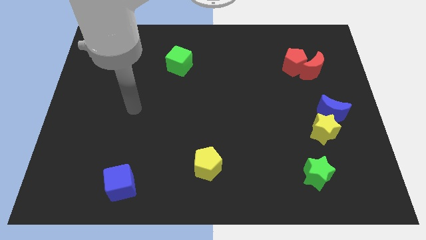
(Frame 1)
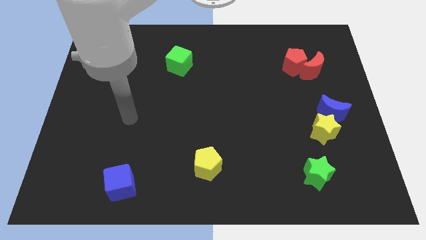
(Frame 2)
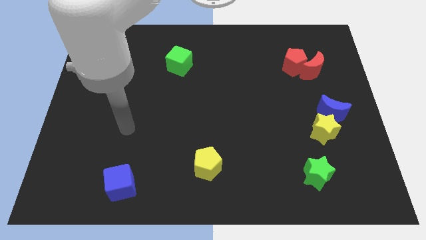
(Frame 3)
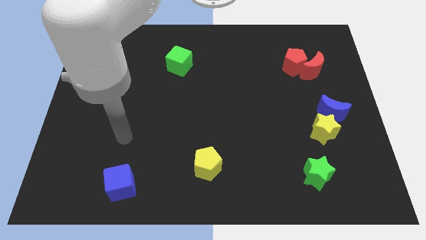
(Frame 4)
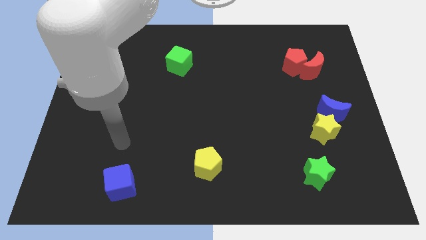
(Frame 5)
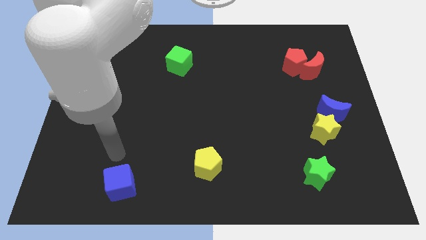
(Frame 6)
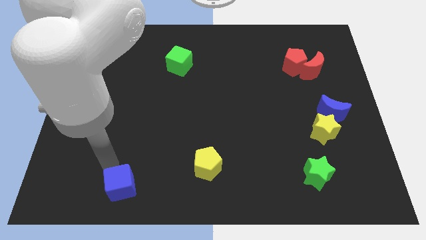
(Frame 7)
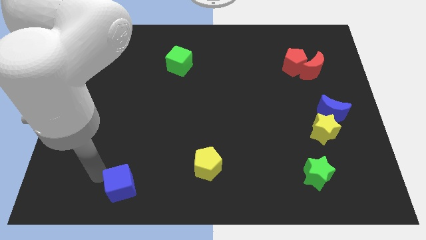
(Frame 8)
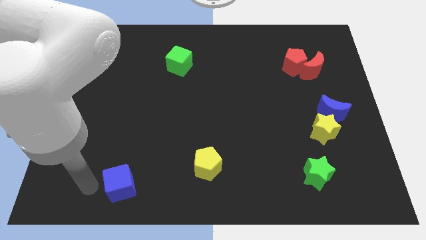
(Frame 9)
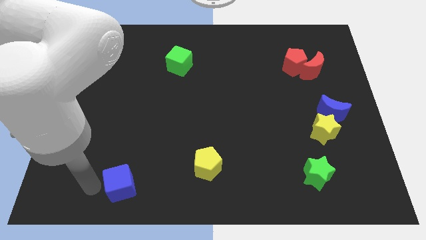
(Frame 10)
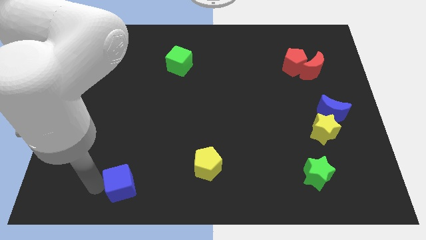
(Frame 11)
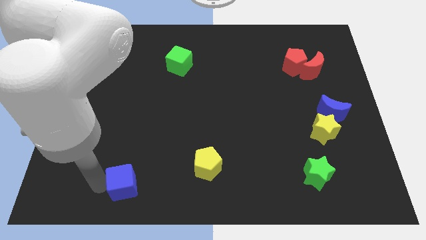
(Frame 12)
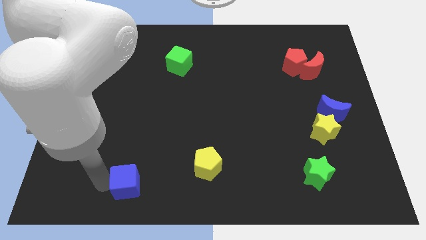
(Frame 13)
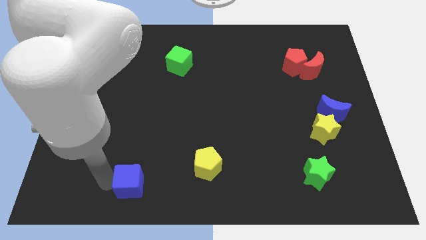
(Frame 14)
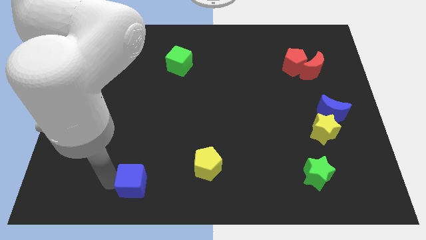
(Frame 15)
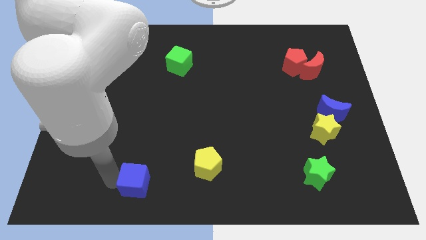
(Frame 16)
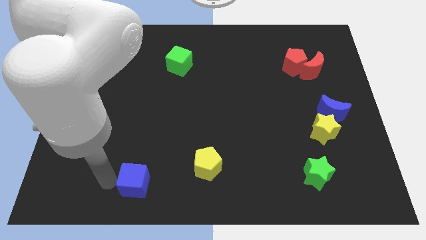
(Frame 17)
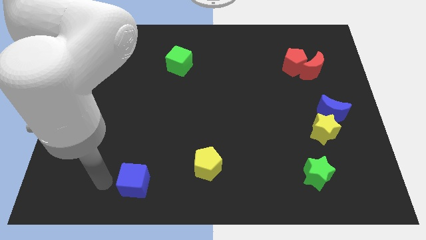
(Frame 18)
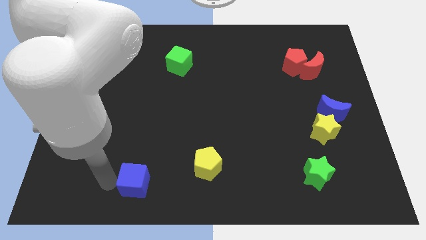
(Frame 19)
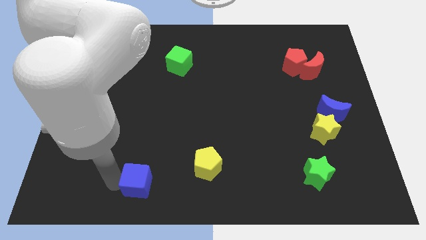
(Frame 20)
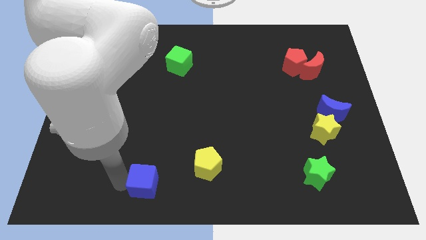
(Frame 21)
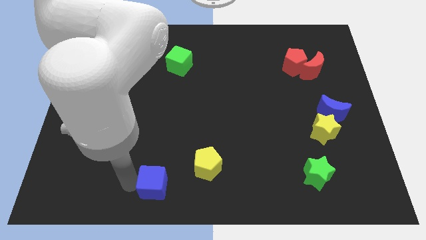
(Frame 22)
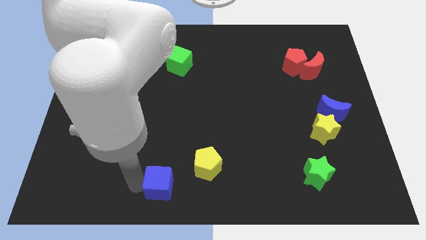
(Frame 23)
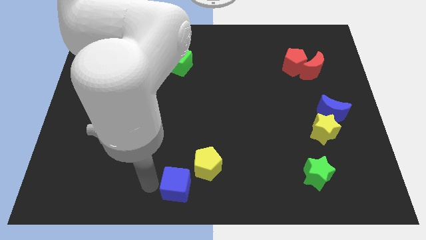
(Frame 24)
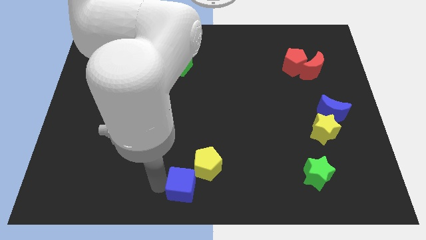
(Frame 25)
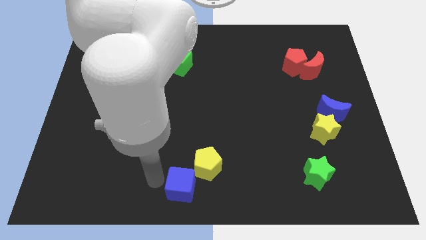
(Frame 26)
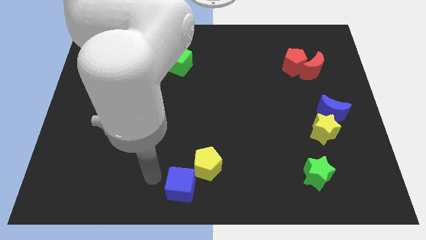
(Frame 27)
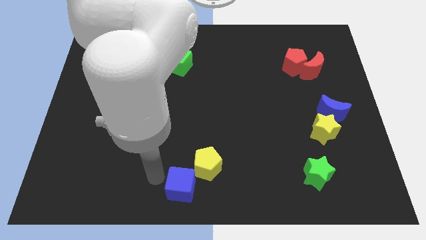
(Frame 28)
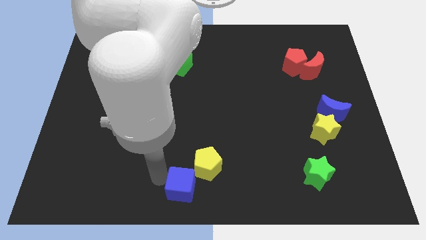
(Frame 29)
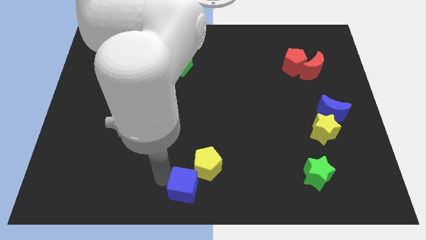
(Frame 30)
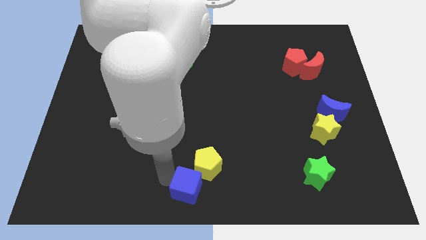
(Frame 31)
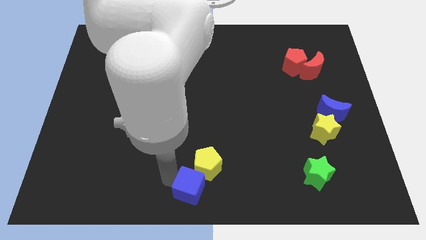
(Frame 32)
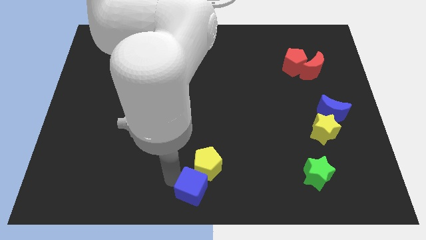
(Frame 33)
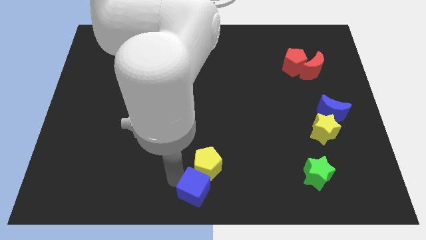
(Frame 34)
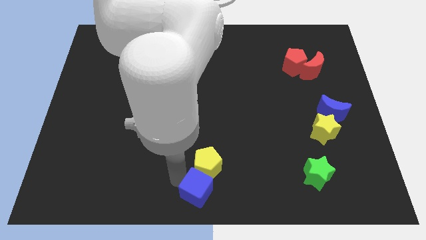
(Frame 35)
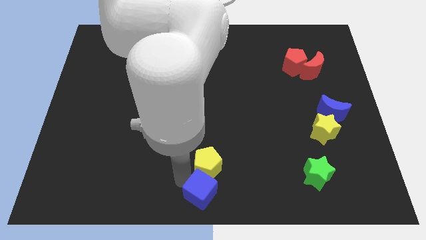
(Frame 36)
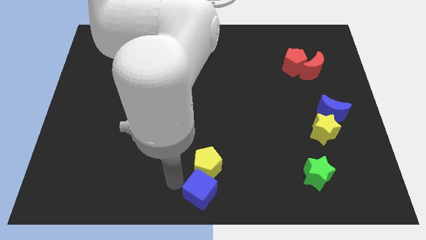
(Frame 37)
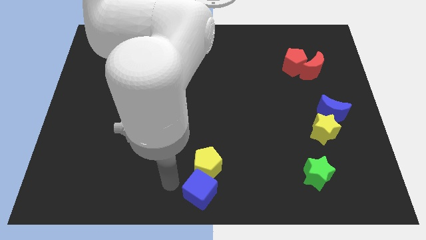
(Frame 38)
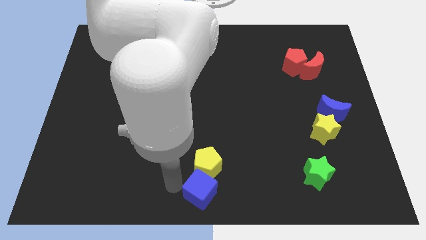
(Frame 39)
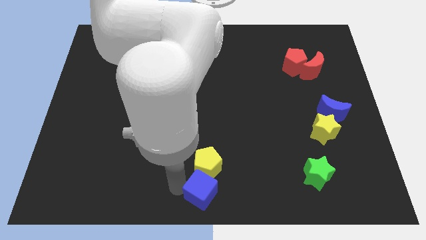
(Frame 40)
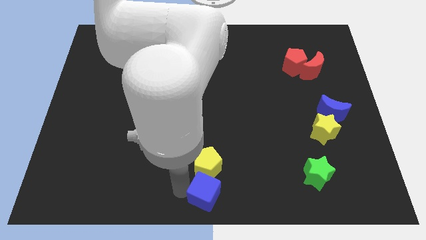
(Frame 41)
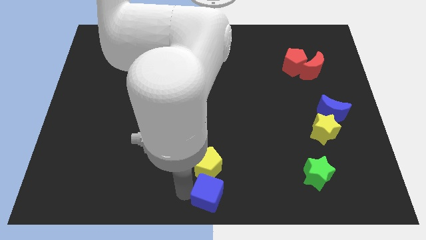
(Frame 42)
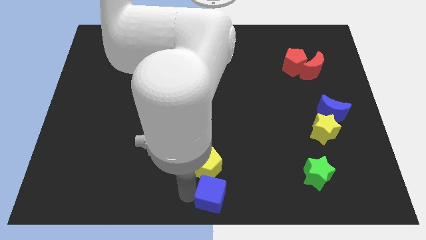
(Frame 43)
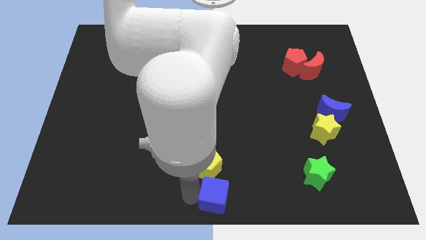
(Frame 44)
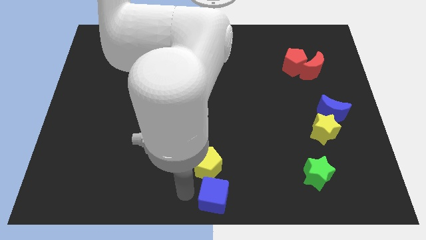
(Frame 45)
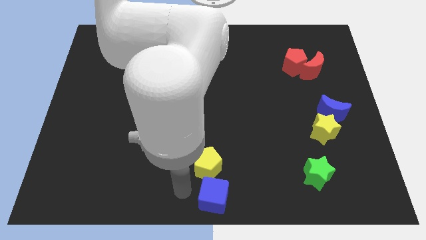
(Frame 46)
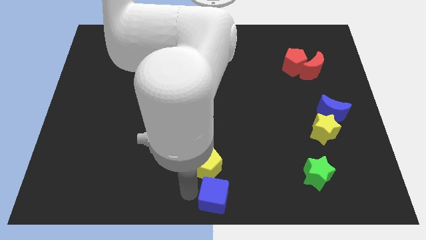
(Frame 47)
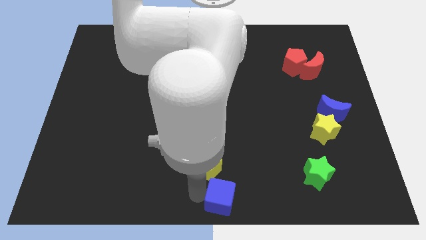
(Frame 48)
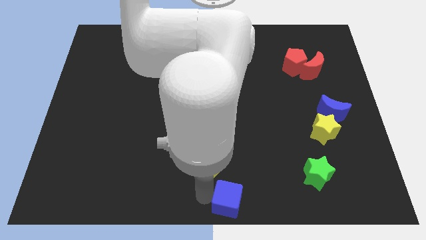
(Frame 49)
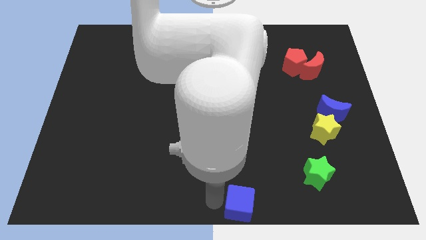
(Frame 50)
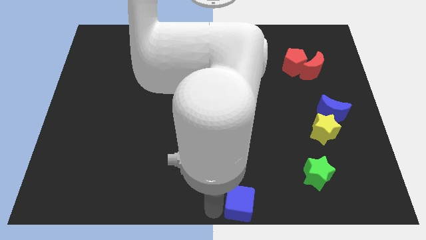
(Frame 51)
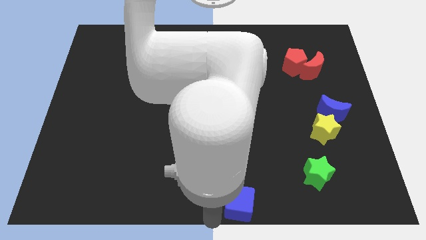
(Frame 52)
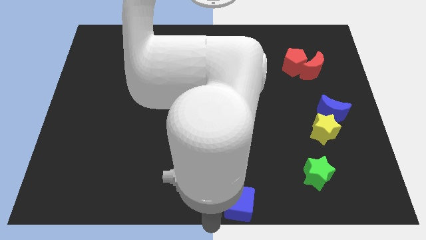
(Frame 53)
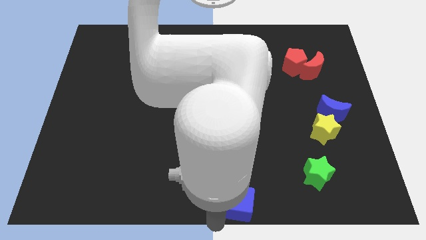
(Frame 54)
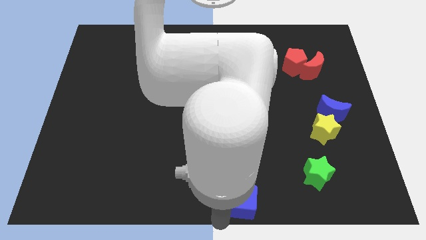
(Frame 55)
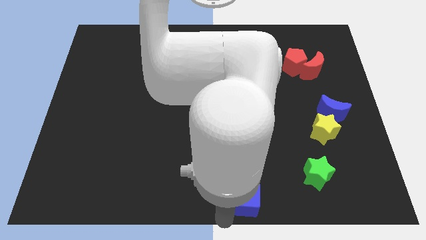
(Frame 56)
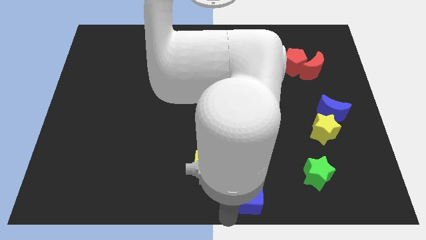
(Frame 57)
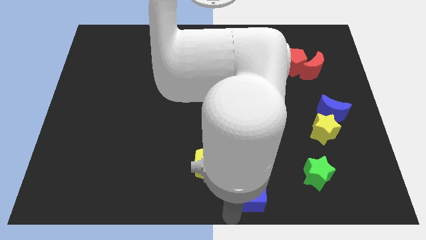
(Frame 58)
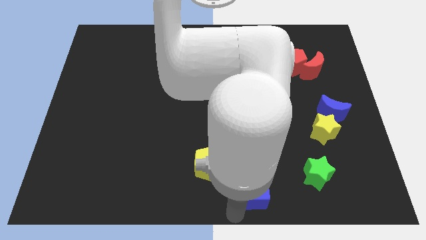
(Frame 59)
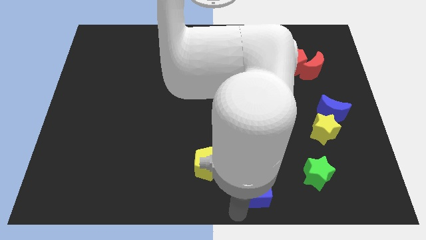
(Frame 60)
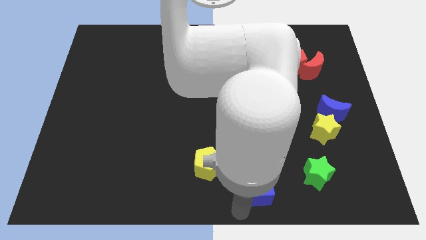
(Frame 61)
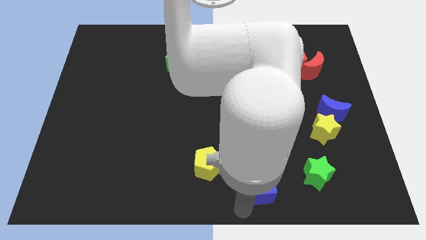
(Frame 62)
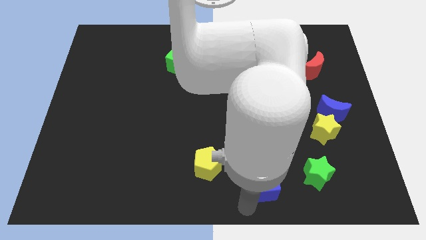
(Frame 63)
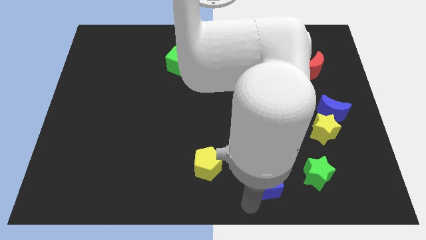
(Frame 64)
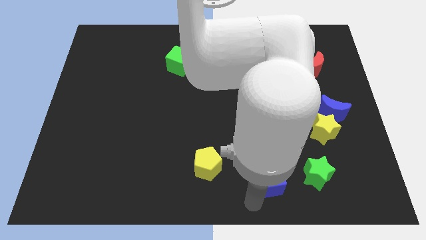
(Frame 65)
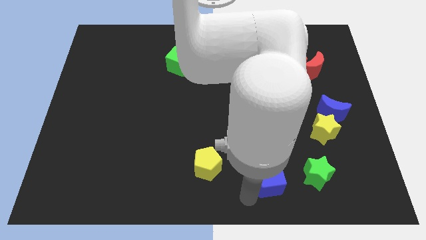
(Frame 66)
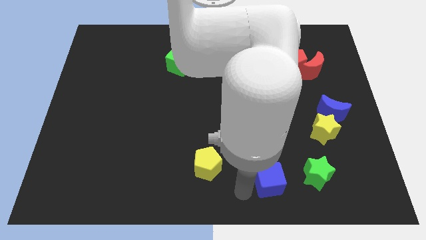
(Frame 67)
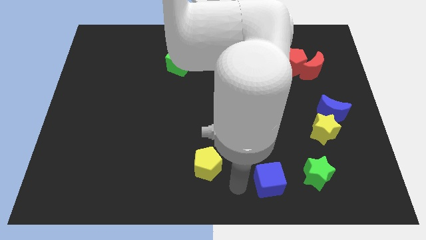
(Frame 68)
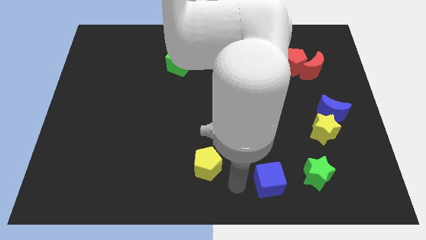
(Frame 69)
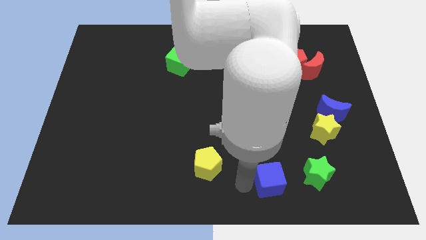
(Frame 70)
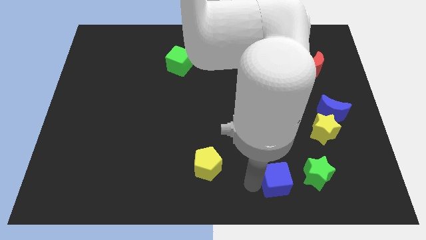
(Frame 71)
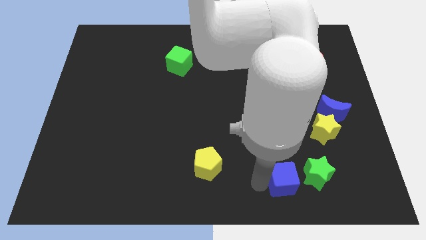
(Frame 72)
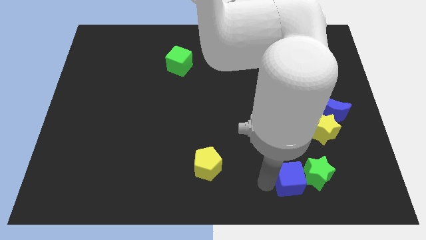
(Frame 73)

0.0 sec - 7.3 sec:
slide the blue cube to the green star
